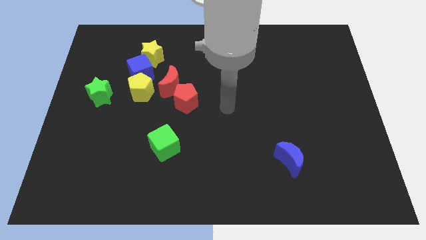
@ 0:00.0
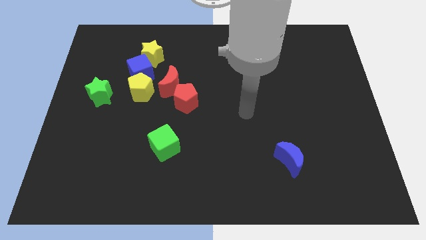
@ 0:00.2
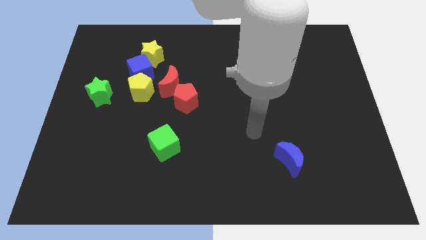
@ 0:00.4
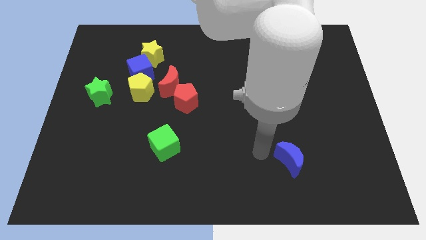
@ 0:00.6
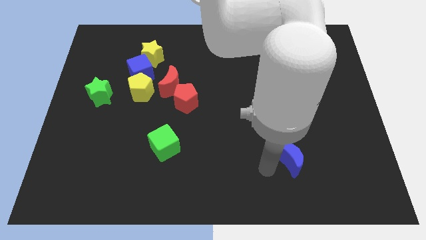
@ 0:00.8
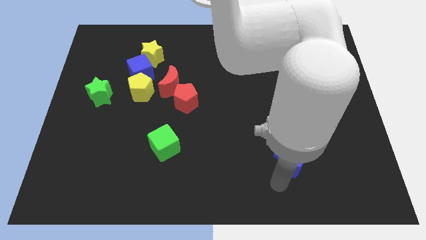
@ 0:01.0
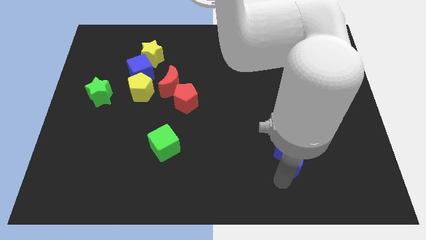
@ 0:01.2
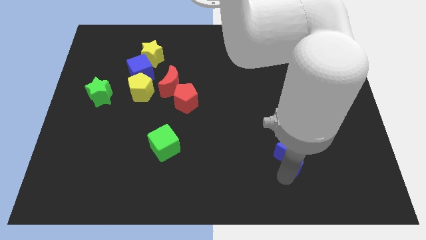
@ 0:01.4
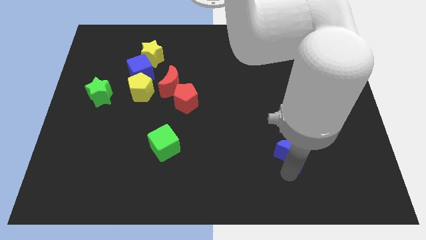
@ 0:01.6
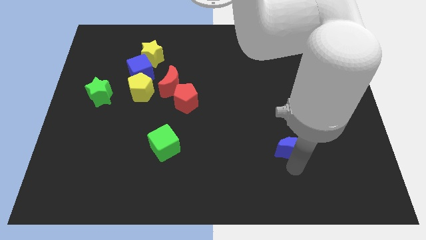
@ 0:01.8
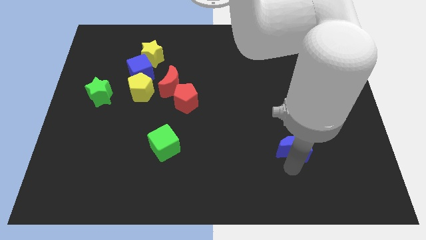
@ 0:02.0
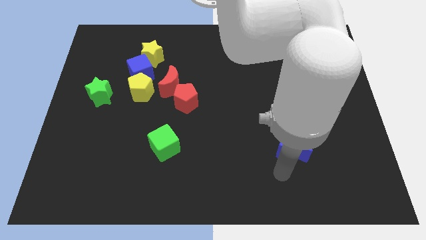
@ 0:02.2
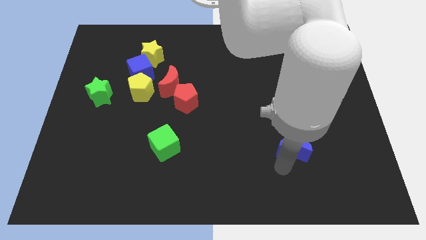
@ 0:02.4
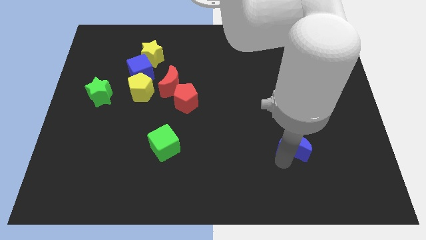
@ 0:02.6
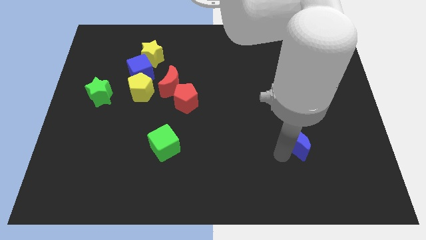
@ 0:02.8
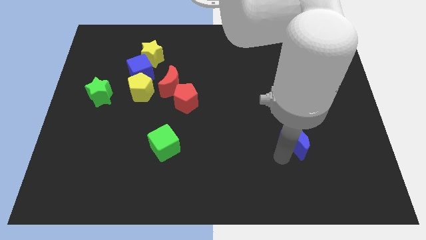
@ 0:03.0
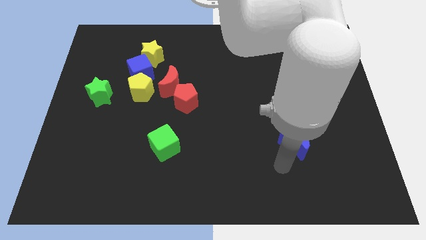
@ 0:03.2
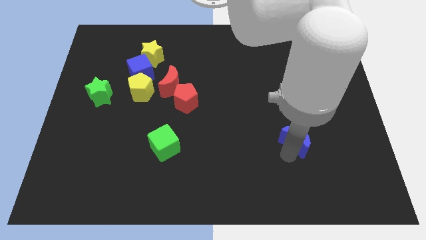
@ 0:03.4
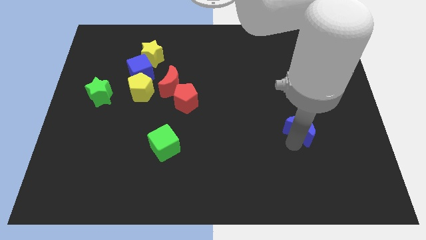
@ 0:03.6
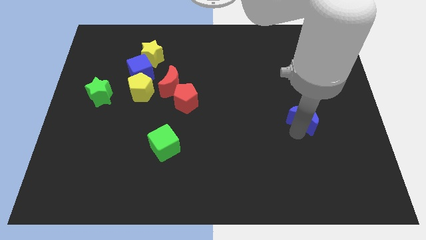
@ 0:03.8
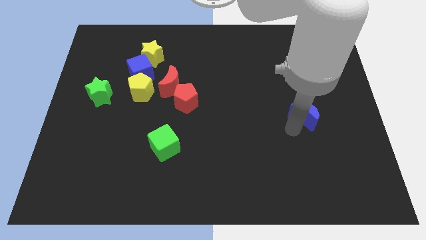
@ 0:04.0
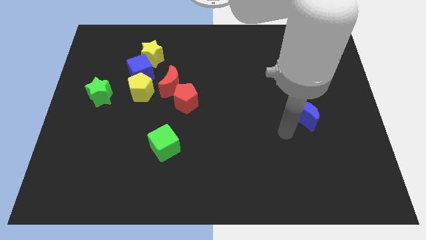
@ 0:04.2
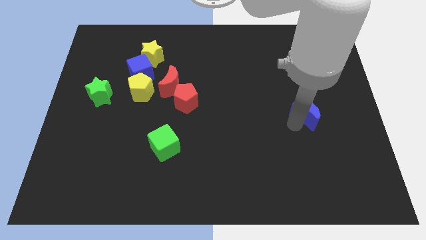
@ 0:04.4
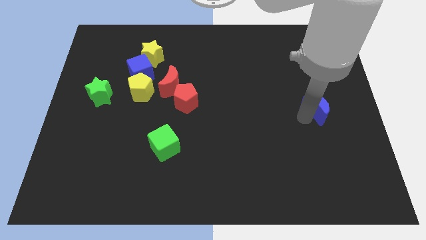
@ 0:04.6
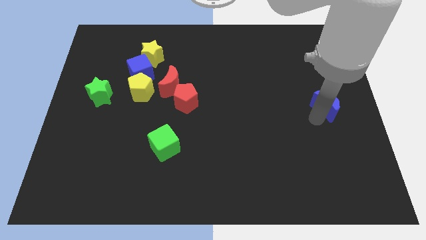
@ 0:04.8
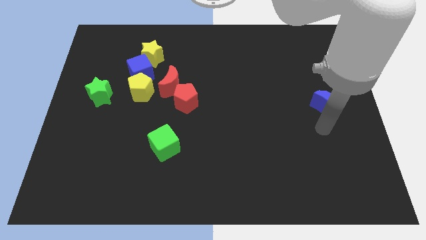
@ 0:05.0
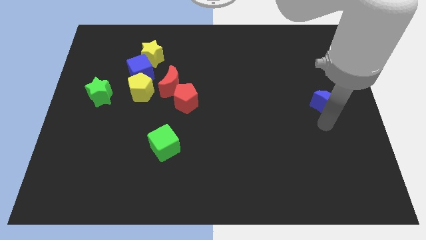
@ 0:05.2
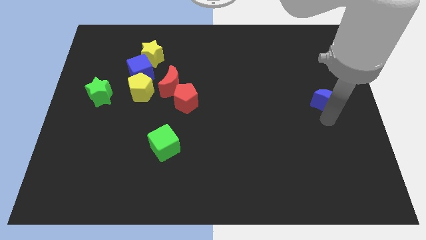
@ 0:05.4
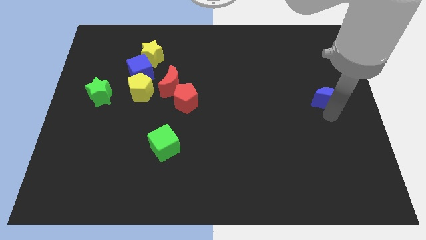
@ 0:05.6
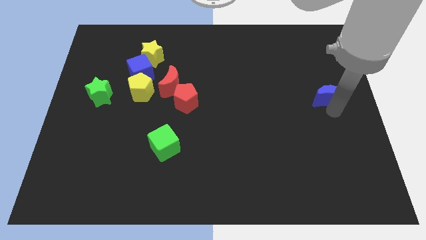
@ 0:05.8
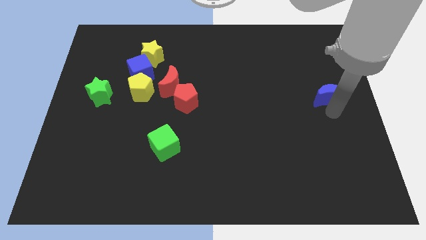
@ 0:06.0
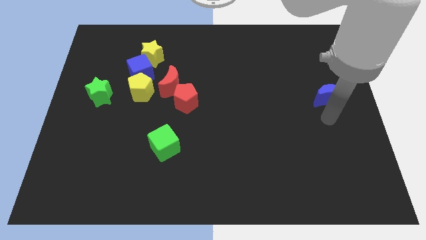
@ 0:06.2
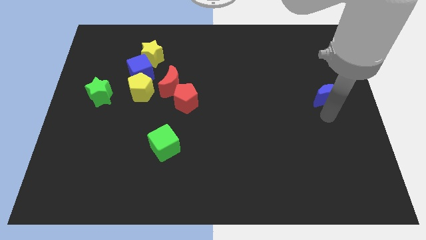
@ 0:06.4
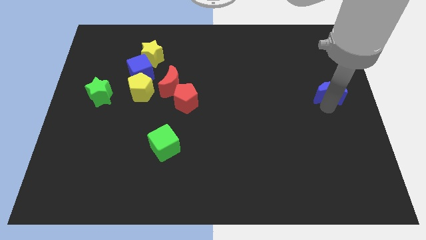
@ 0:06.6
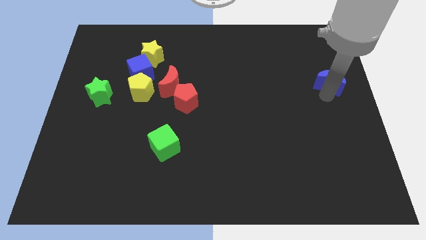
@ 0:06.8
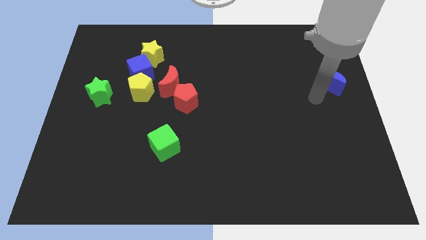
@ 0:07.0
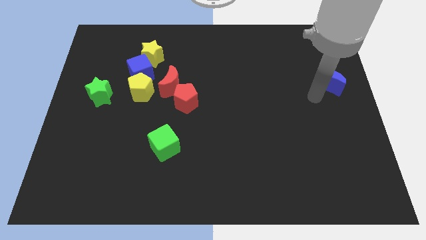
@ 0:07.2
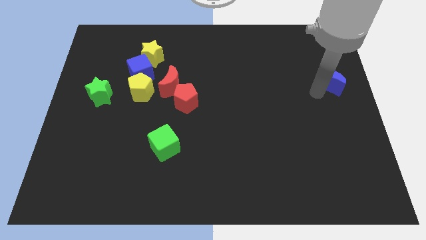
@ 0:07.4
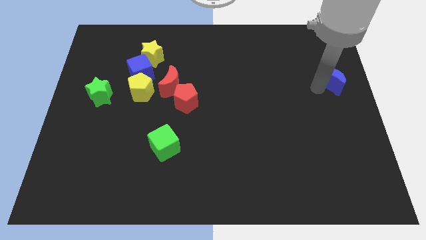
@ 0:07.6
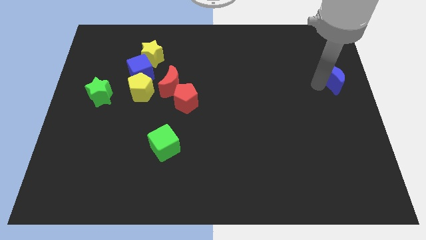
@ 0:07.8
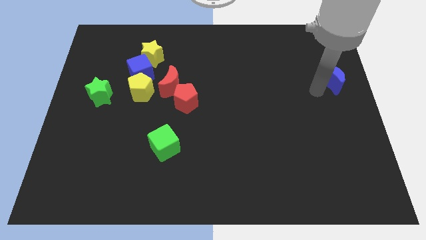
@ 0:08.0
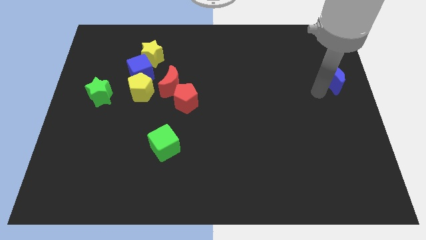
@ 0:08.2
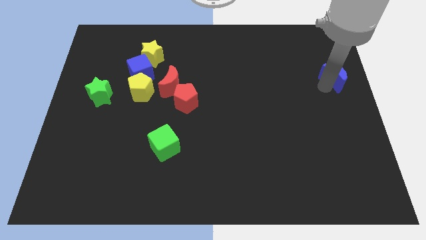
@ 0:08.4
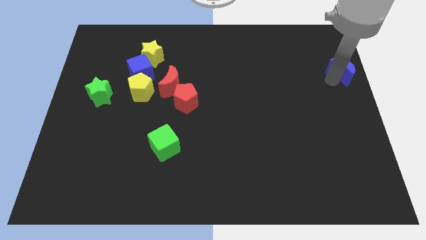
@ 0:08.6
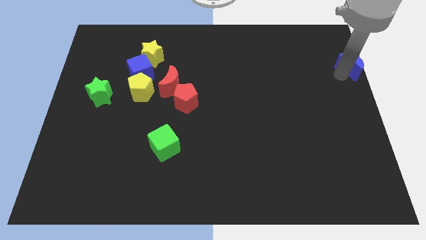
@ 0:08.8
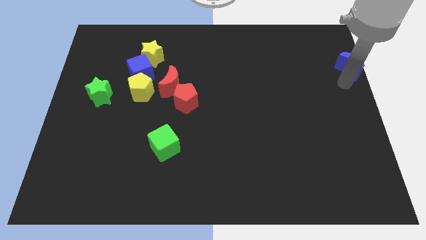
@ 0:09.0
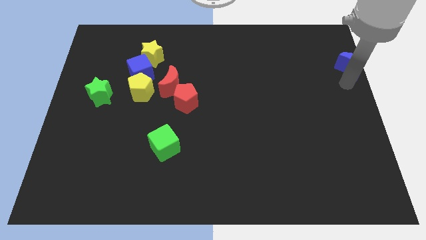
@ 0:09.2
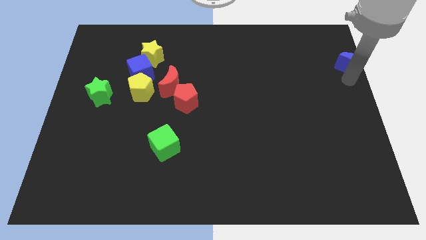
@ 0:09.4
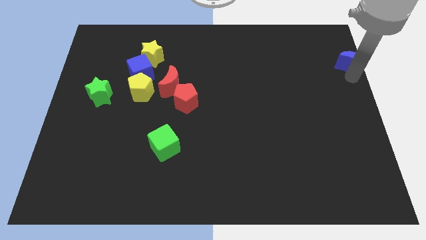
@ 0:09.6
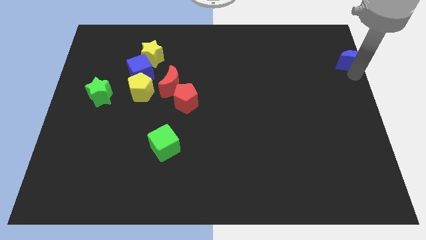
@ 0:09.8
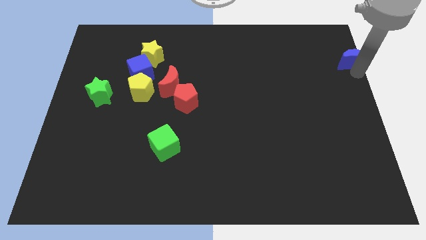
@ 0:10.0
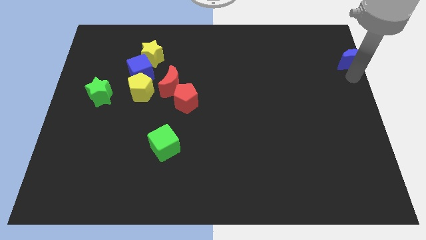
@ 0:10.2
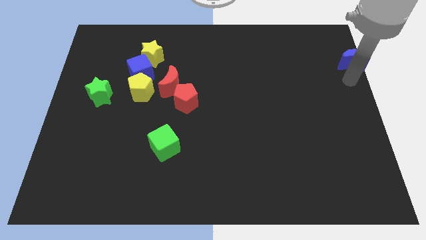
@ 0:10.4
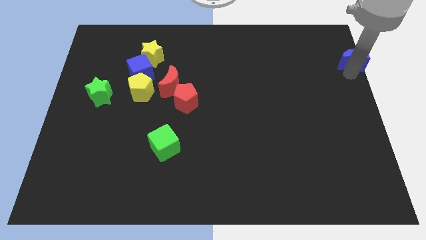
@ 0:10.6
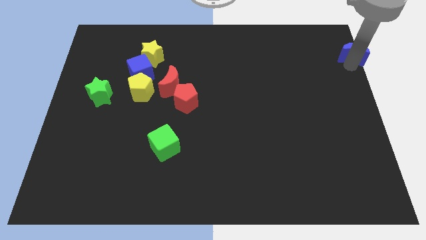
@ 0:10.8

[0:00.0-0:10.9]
move the blue moon to the top right of the board

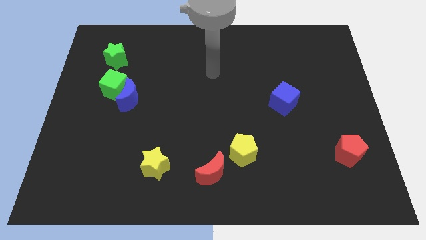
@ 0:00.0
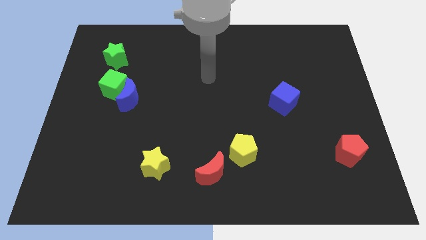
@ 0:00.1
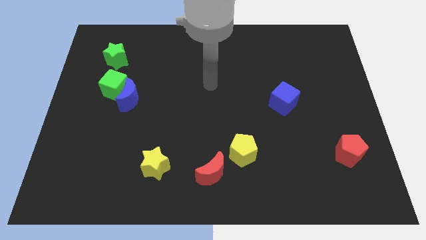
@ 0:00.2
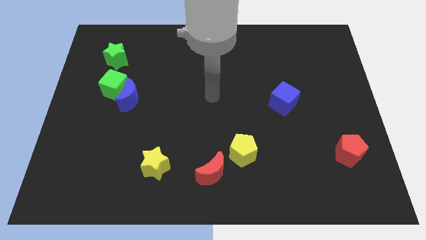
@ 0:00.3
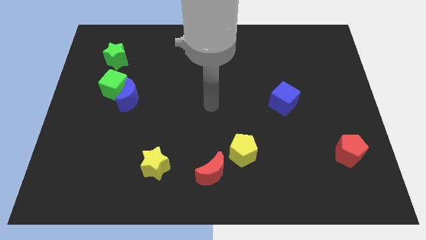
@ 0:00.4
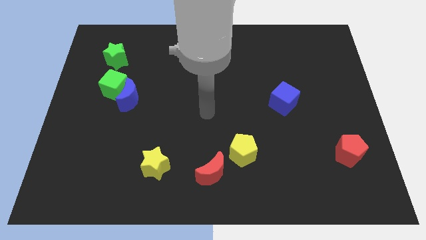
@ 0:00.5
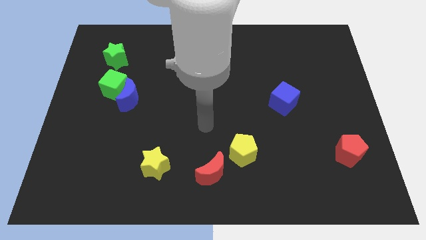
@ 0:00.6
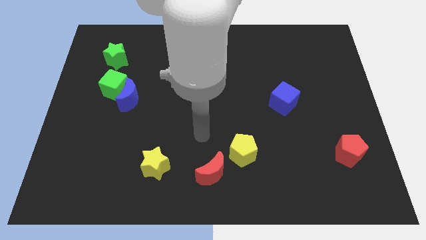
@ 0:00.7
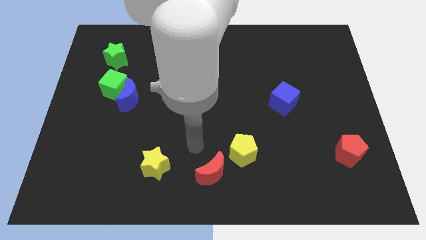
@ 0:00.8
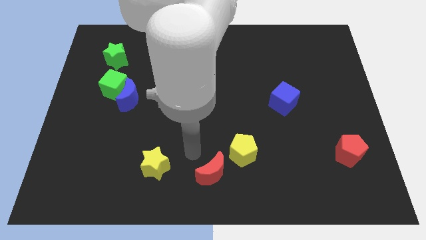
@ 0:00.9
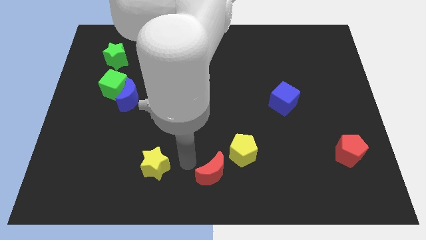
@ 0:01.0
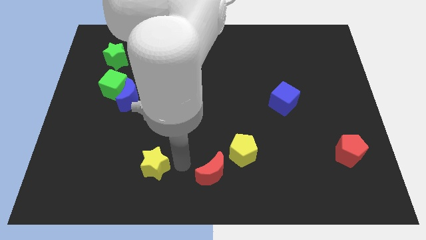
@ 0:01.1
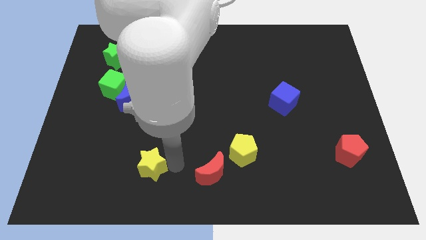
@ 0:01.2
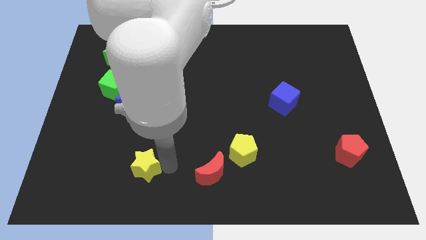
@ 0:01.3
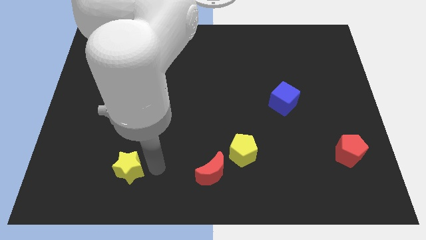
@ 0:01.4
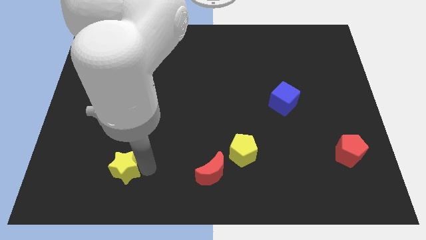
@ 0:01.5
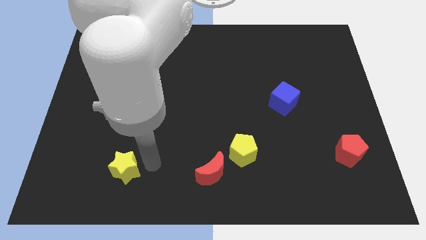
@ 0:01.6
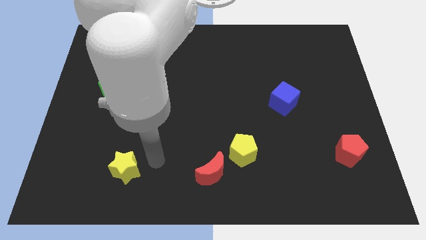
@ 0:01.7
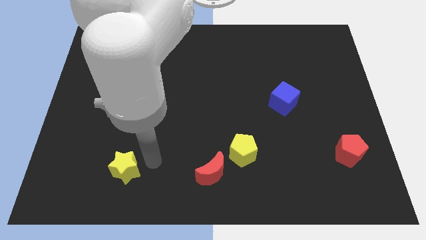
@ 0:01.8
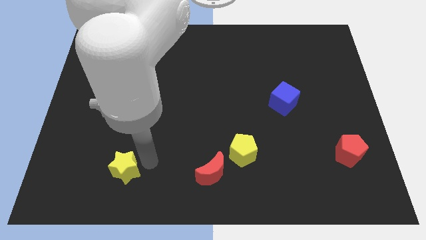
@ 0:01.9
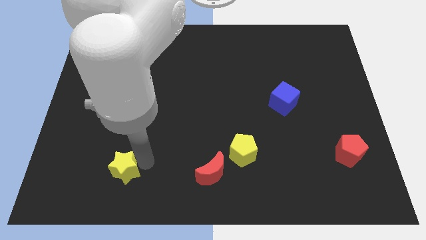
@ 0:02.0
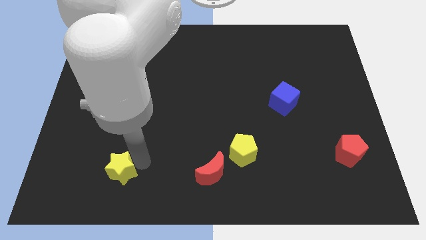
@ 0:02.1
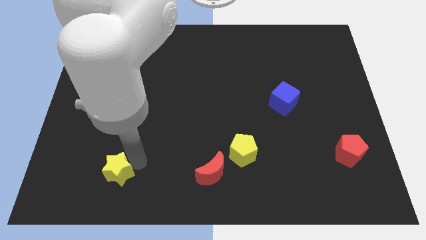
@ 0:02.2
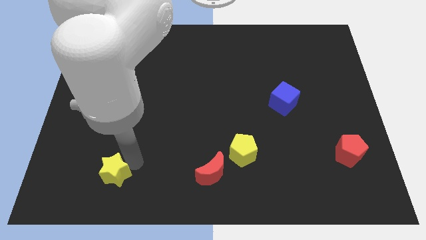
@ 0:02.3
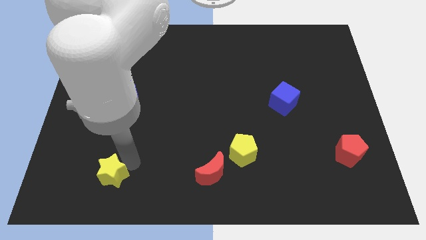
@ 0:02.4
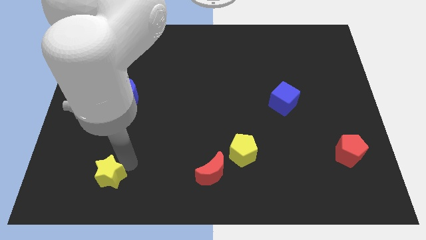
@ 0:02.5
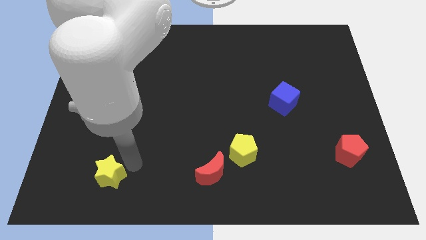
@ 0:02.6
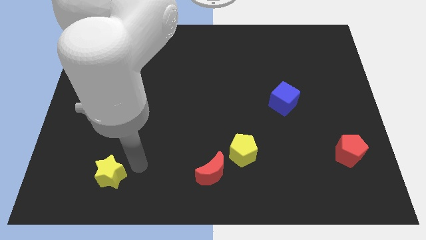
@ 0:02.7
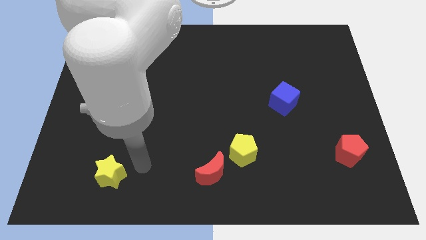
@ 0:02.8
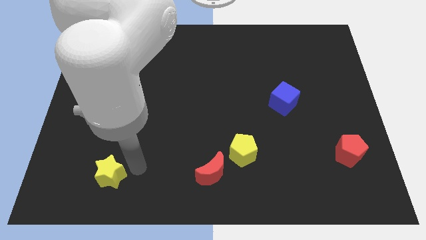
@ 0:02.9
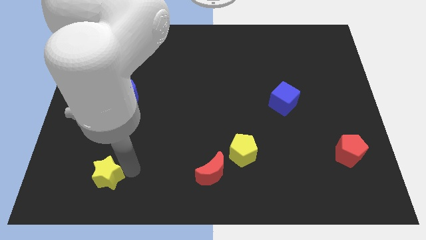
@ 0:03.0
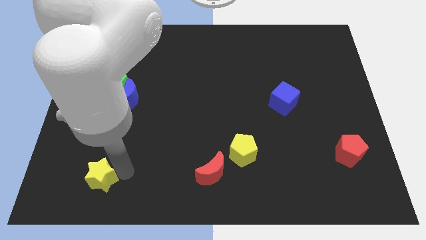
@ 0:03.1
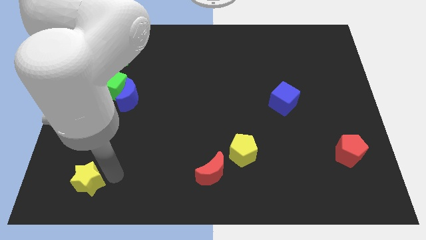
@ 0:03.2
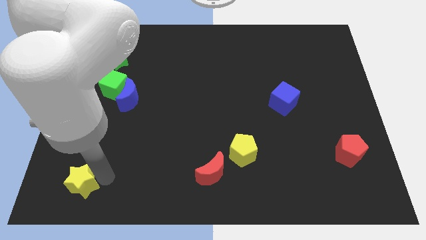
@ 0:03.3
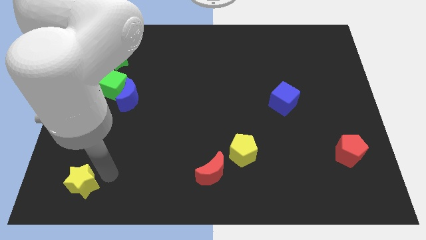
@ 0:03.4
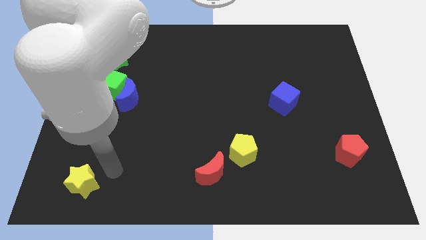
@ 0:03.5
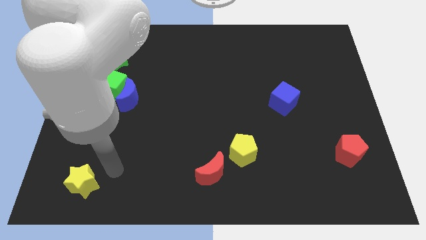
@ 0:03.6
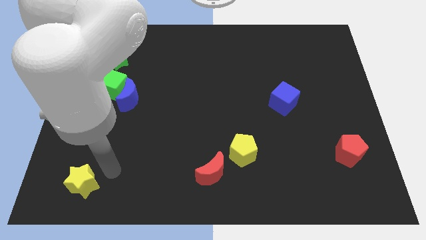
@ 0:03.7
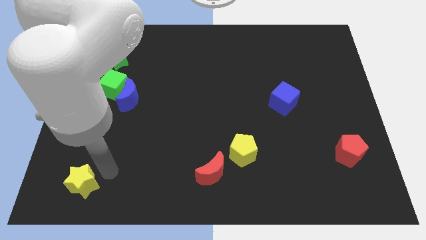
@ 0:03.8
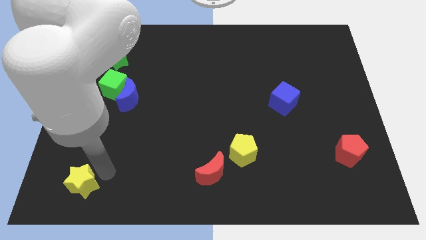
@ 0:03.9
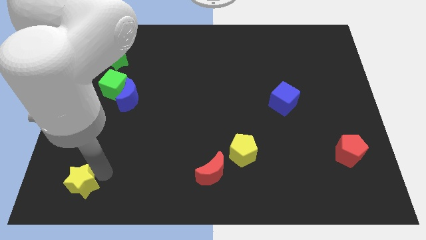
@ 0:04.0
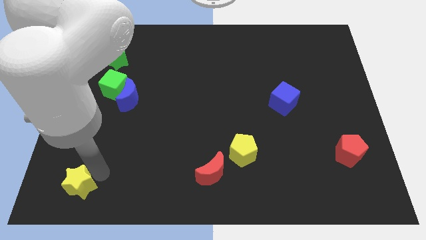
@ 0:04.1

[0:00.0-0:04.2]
move the yellow star to the bottom left
